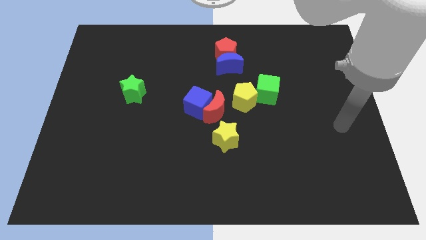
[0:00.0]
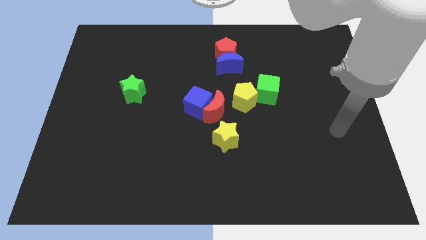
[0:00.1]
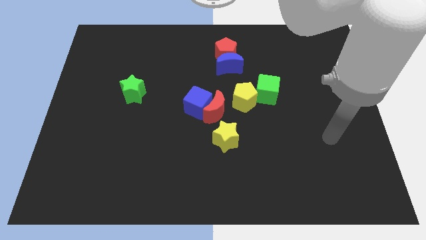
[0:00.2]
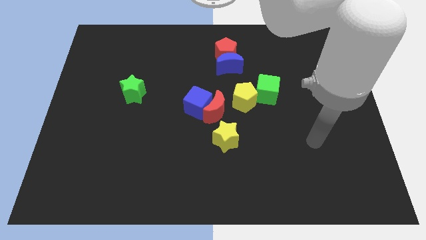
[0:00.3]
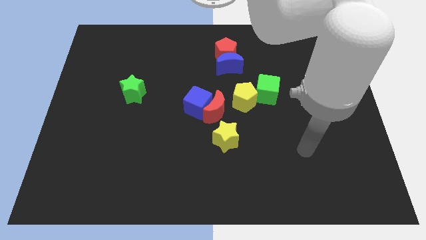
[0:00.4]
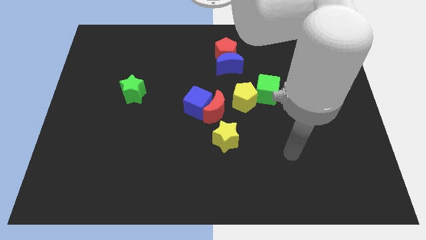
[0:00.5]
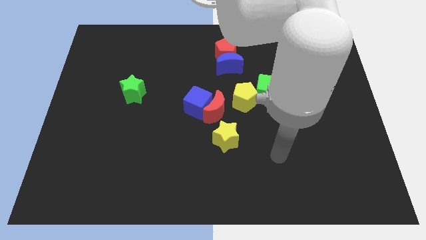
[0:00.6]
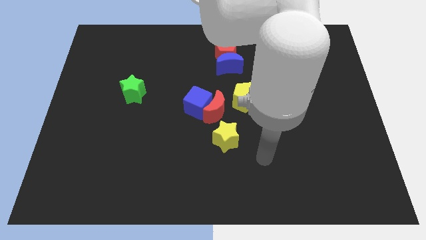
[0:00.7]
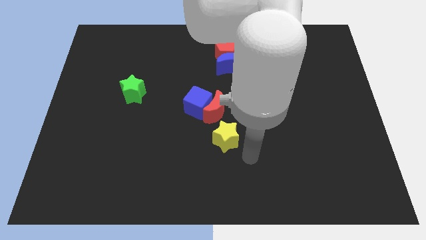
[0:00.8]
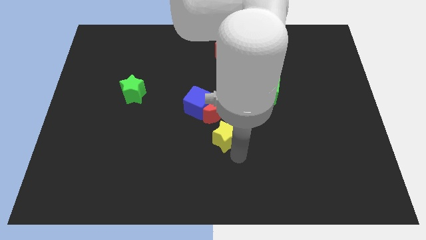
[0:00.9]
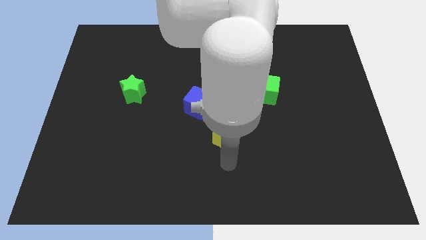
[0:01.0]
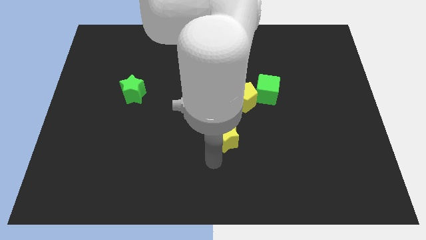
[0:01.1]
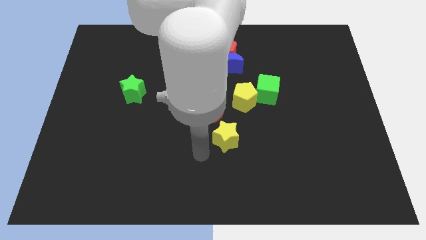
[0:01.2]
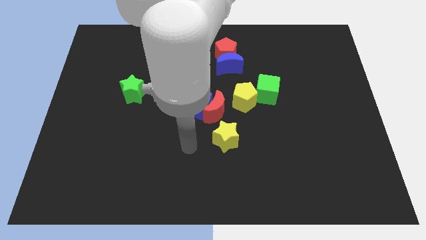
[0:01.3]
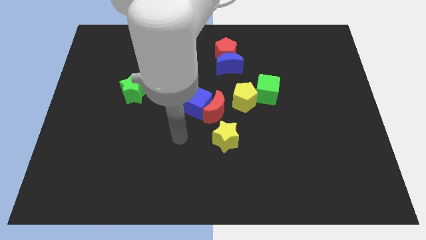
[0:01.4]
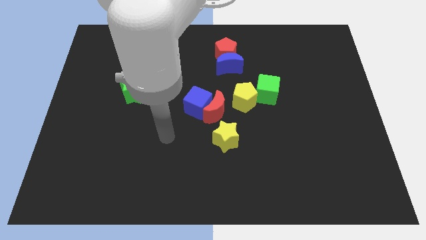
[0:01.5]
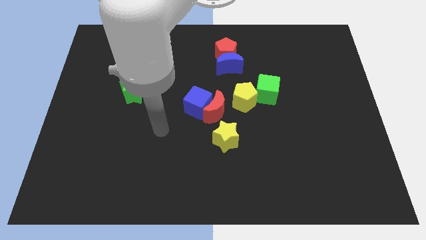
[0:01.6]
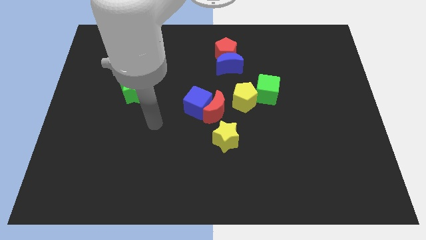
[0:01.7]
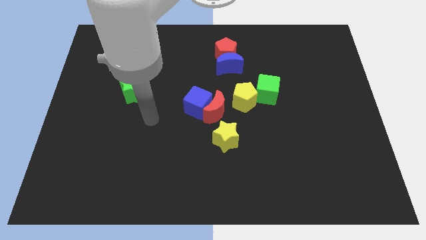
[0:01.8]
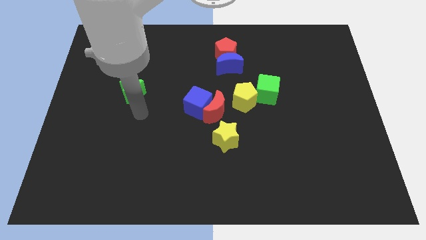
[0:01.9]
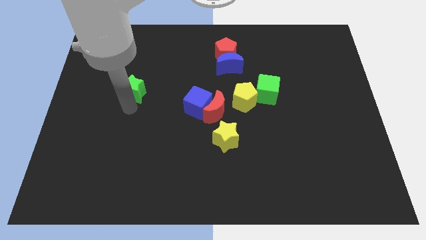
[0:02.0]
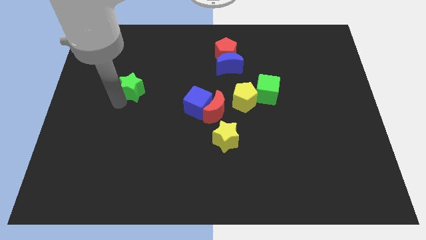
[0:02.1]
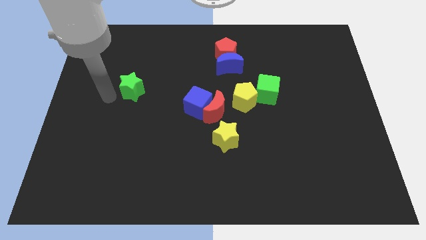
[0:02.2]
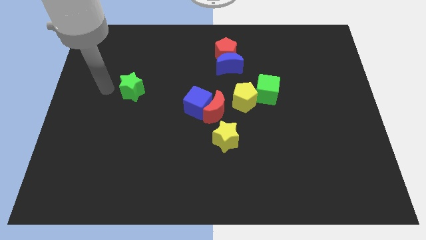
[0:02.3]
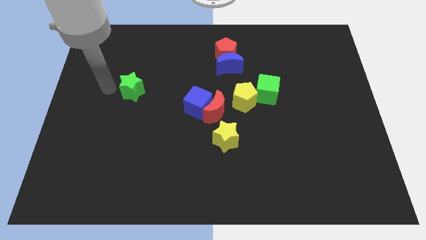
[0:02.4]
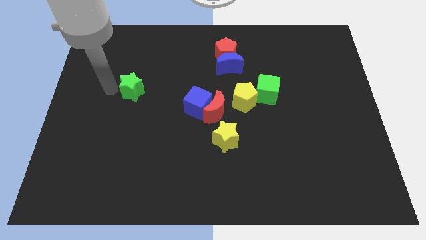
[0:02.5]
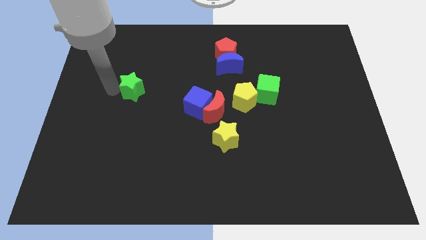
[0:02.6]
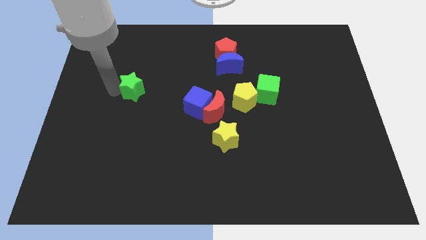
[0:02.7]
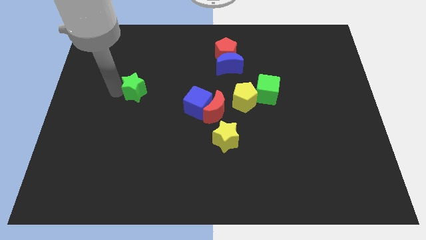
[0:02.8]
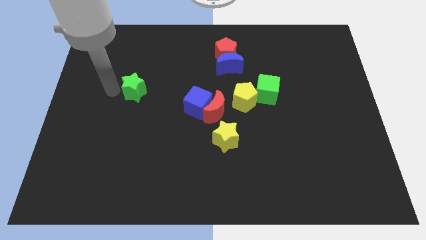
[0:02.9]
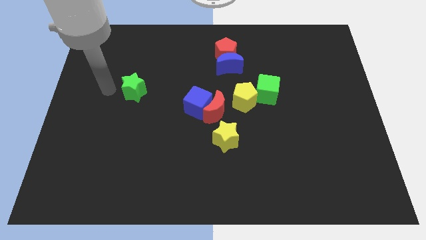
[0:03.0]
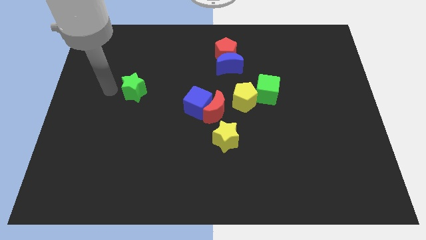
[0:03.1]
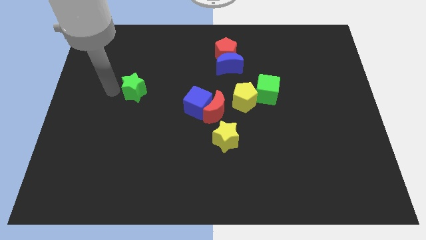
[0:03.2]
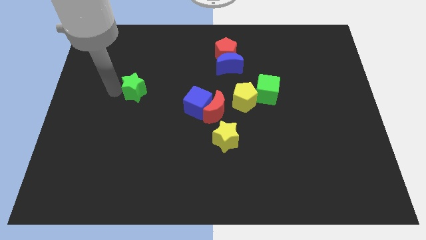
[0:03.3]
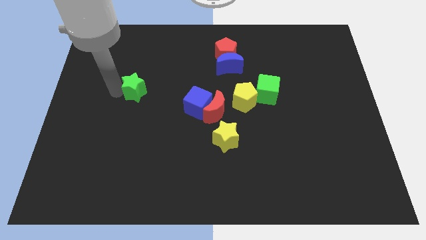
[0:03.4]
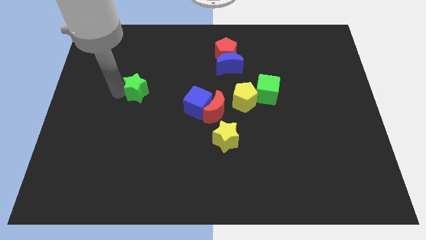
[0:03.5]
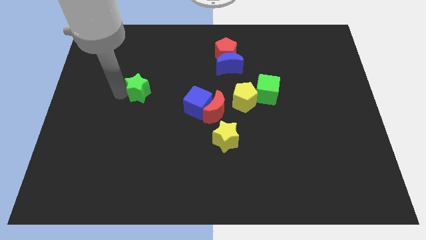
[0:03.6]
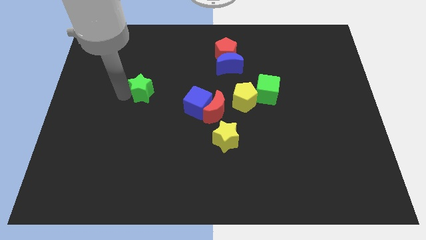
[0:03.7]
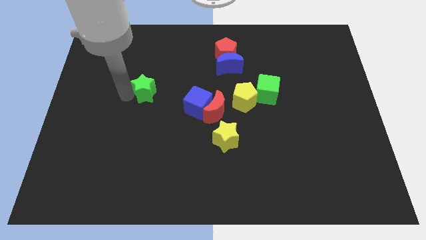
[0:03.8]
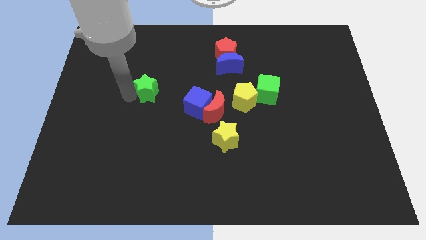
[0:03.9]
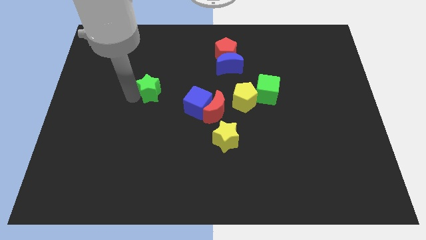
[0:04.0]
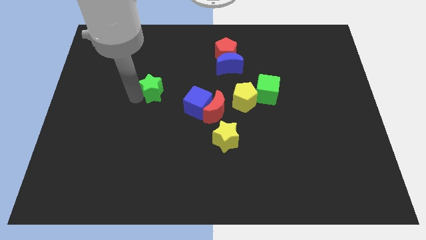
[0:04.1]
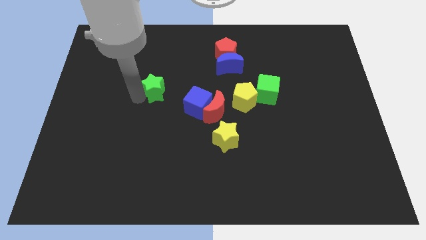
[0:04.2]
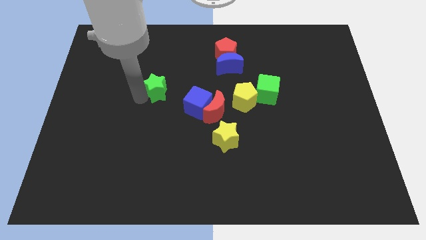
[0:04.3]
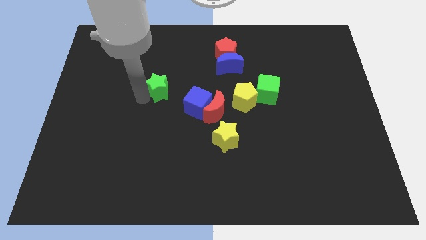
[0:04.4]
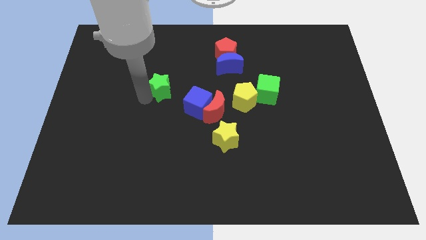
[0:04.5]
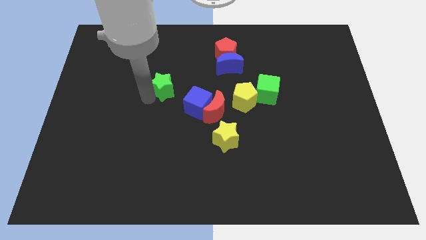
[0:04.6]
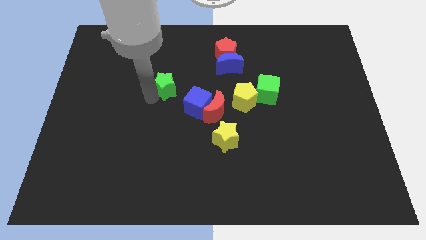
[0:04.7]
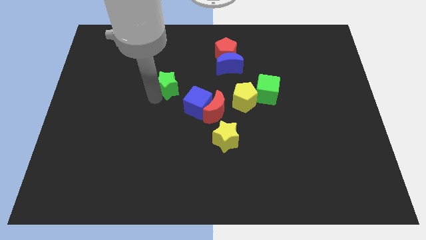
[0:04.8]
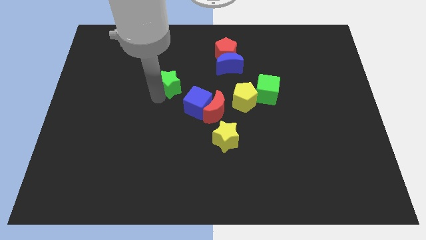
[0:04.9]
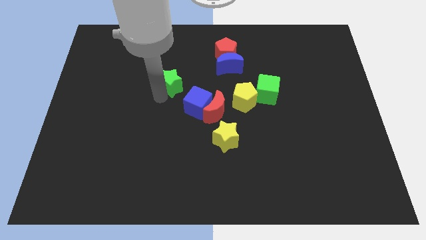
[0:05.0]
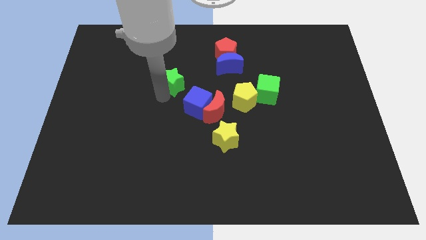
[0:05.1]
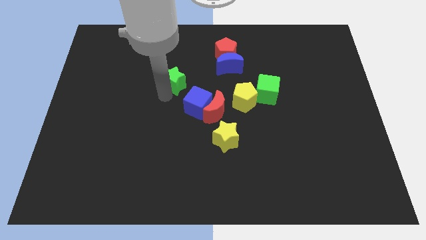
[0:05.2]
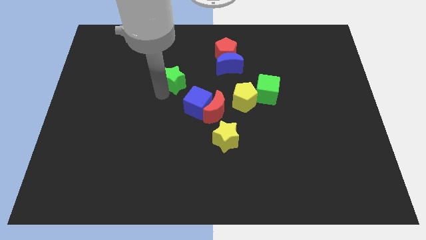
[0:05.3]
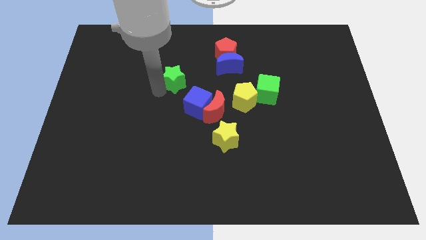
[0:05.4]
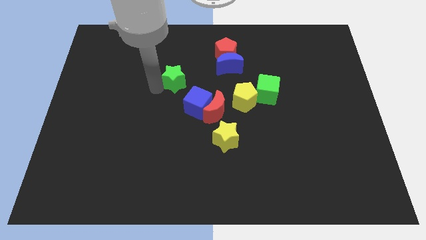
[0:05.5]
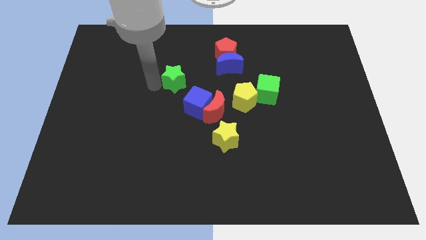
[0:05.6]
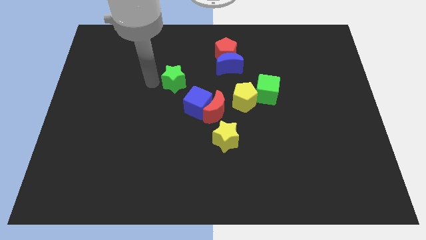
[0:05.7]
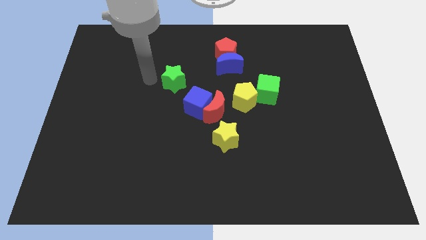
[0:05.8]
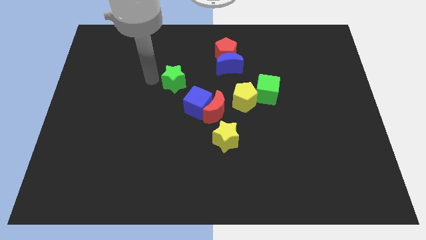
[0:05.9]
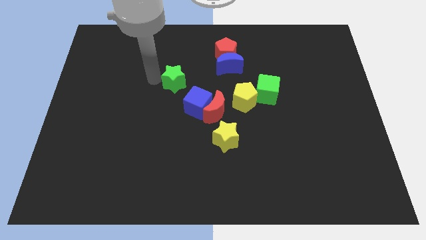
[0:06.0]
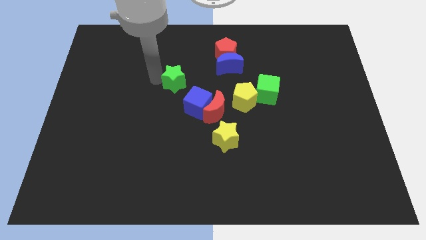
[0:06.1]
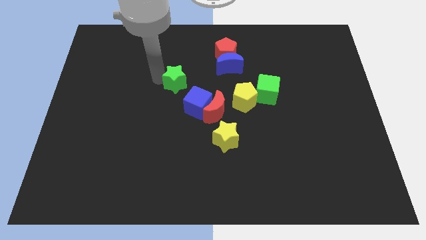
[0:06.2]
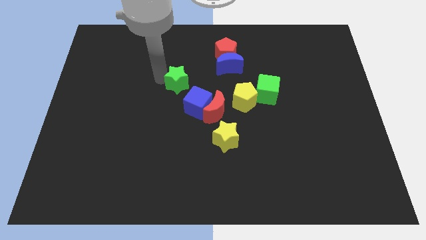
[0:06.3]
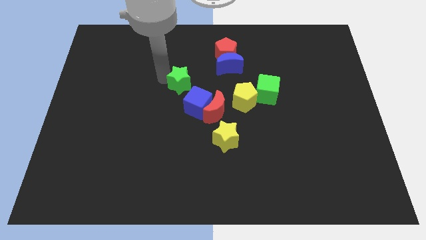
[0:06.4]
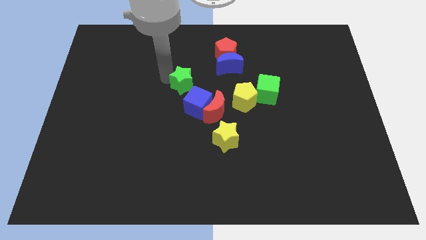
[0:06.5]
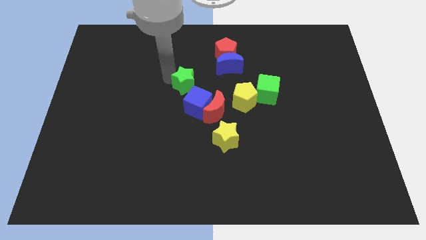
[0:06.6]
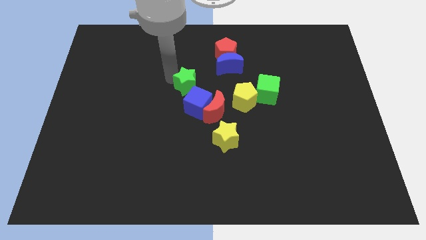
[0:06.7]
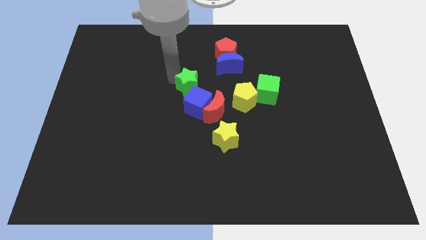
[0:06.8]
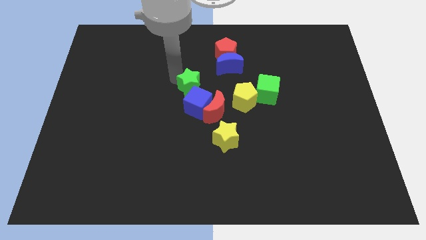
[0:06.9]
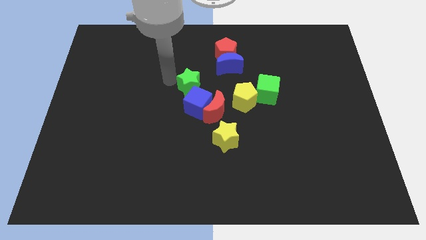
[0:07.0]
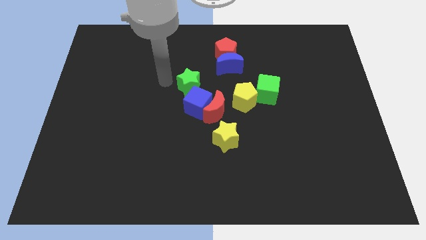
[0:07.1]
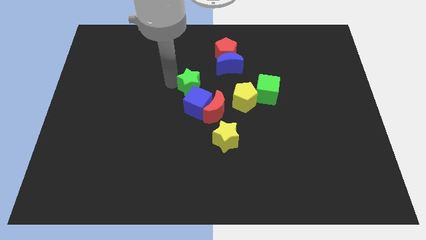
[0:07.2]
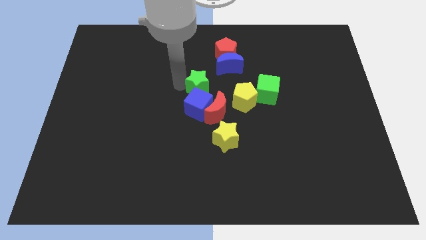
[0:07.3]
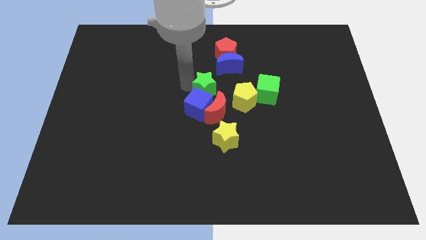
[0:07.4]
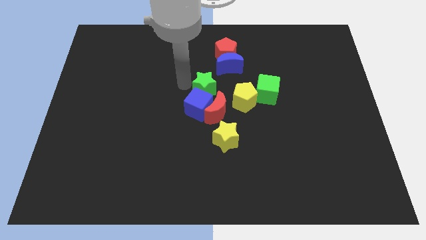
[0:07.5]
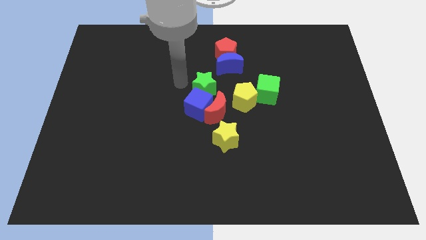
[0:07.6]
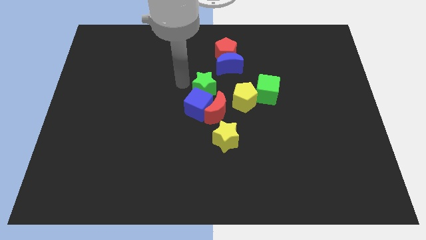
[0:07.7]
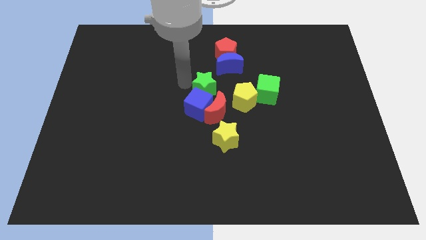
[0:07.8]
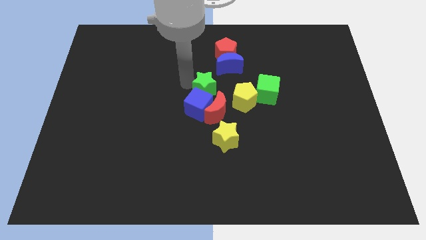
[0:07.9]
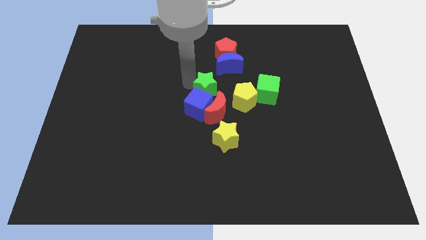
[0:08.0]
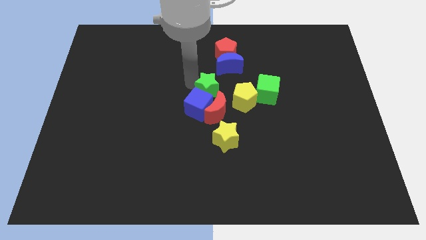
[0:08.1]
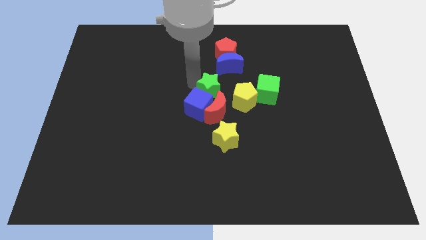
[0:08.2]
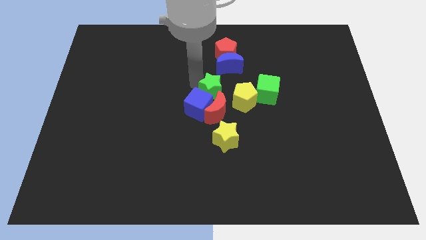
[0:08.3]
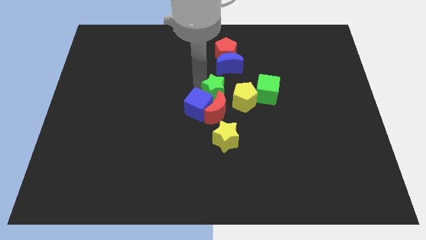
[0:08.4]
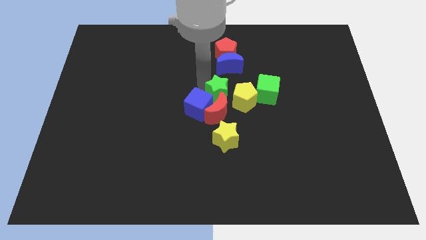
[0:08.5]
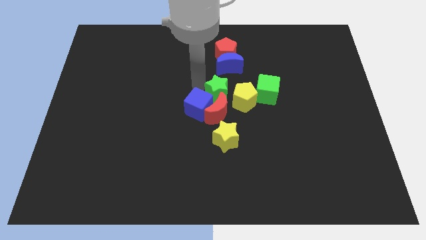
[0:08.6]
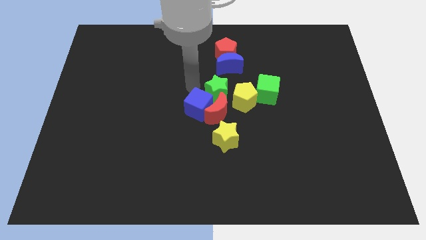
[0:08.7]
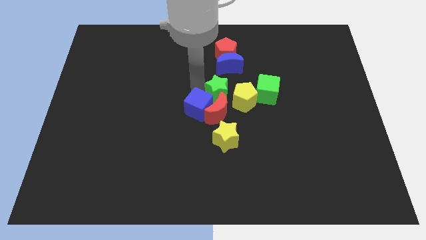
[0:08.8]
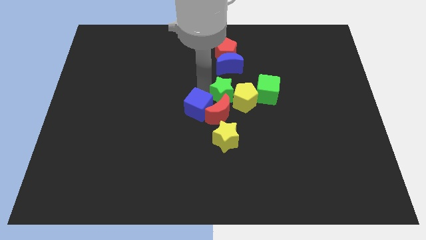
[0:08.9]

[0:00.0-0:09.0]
slide the green star towards the yellow pentagon
